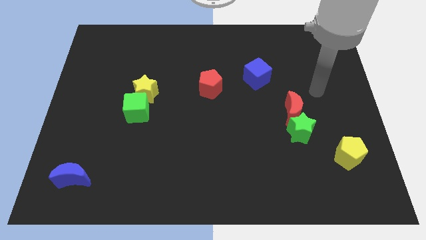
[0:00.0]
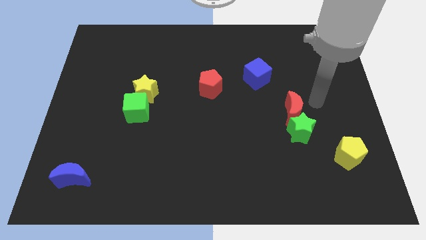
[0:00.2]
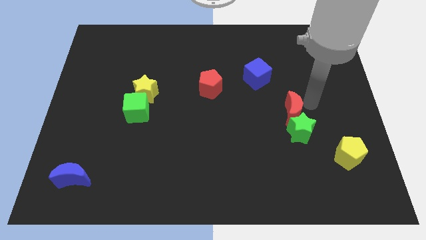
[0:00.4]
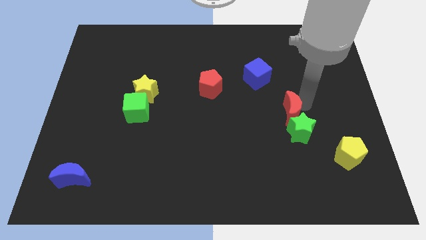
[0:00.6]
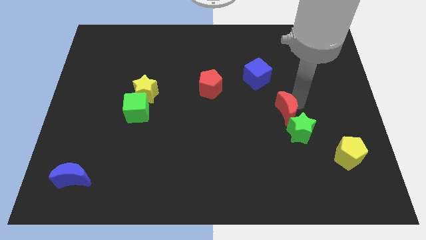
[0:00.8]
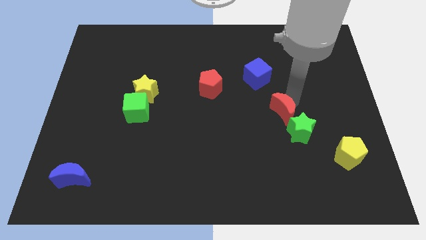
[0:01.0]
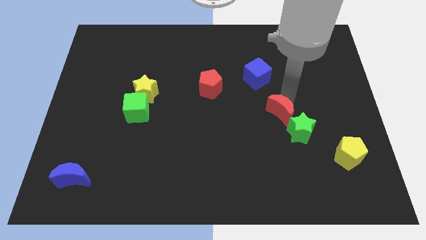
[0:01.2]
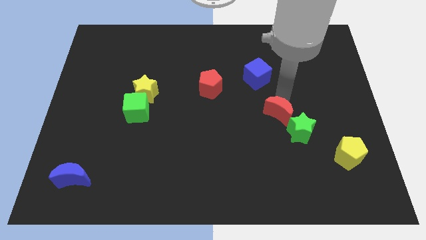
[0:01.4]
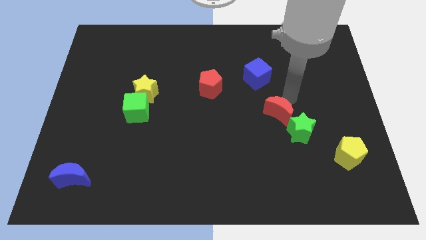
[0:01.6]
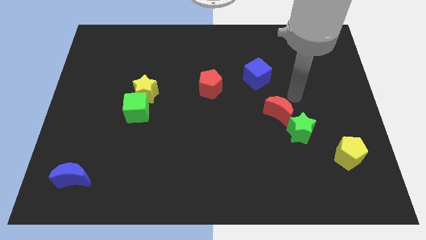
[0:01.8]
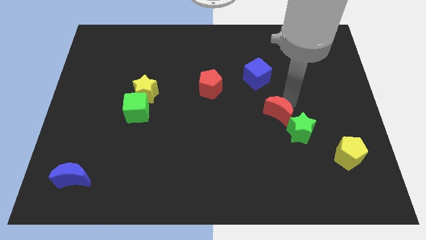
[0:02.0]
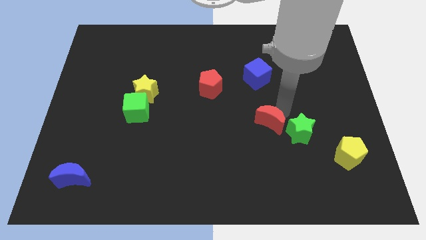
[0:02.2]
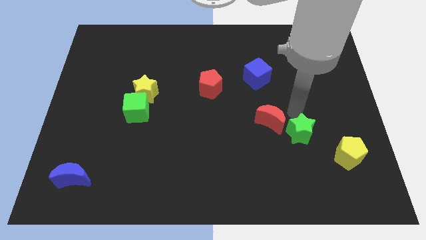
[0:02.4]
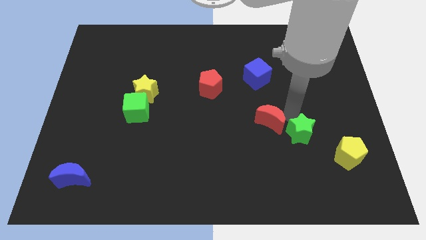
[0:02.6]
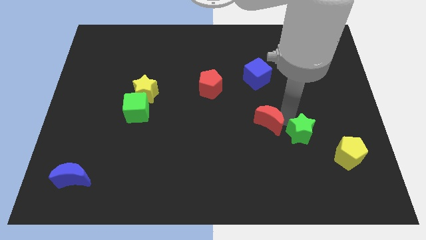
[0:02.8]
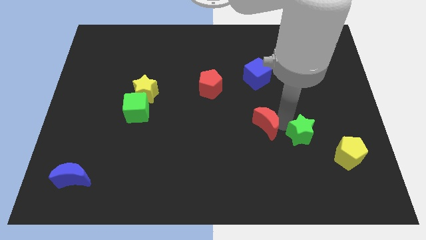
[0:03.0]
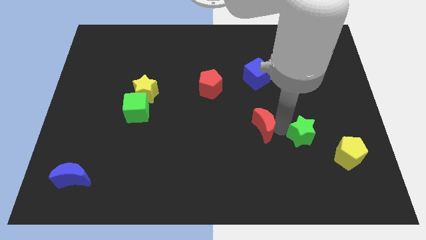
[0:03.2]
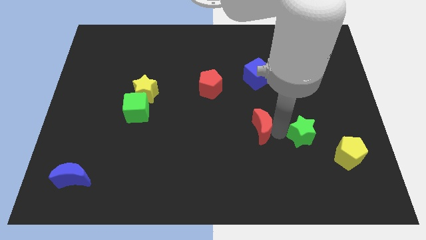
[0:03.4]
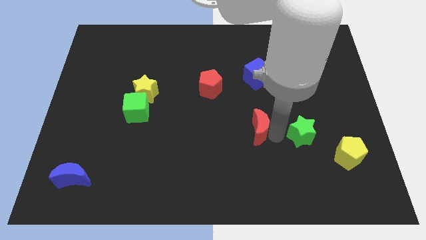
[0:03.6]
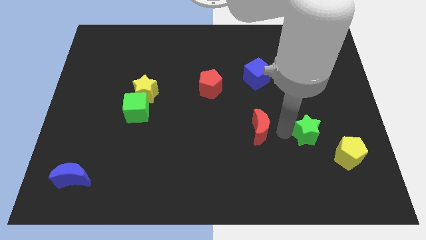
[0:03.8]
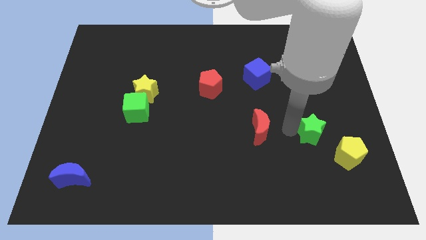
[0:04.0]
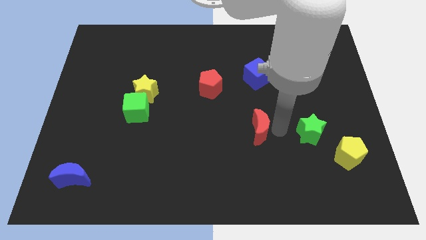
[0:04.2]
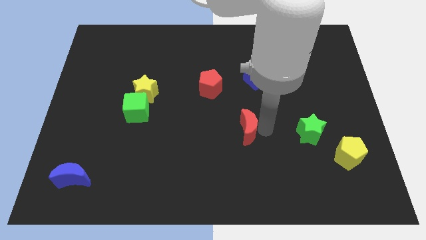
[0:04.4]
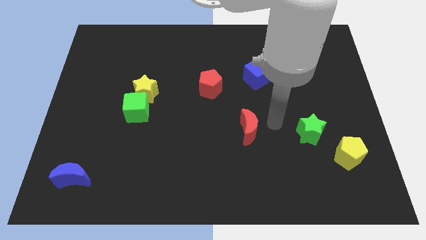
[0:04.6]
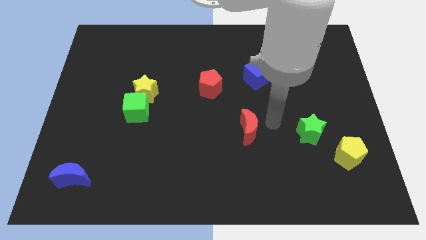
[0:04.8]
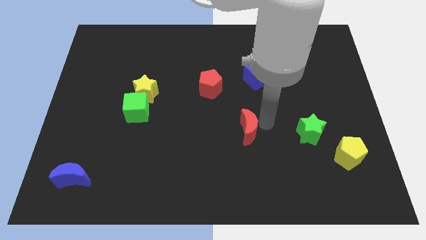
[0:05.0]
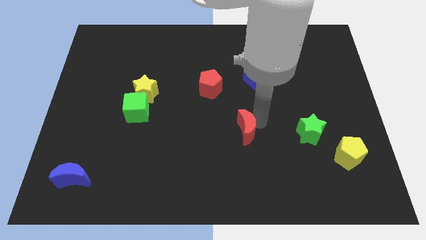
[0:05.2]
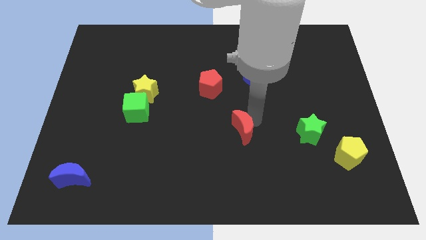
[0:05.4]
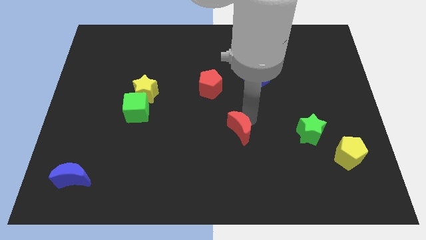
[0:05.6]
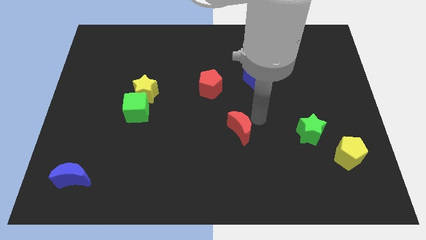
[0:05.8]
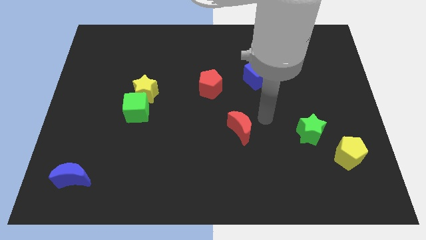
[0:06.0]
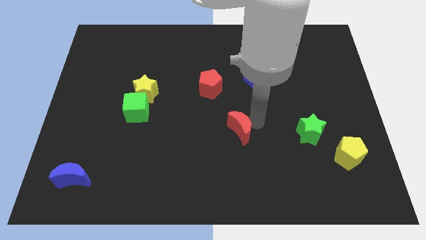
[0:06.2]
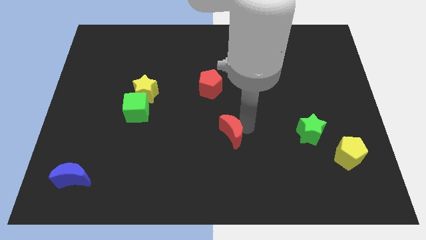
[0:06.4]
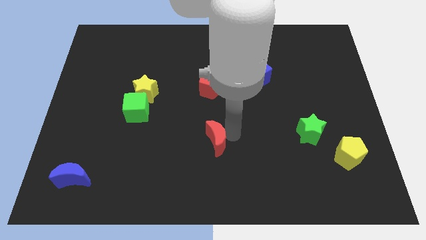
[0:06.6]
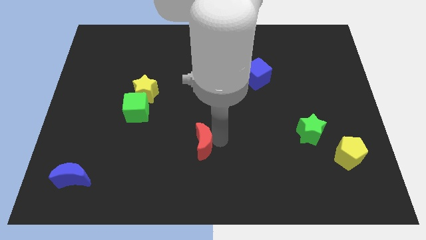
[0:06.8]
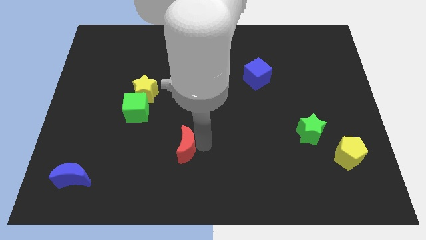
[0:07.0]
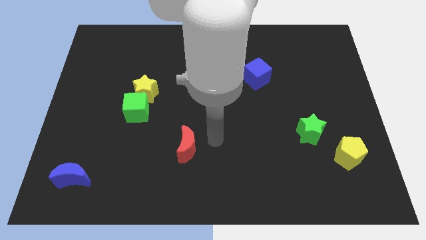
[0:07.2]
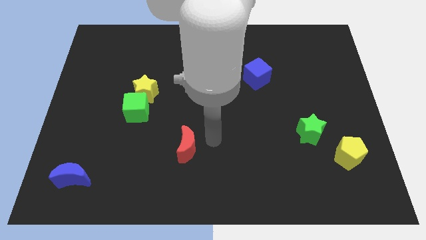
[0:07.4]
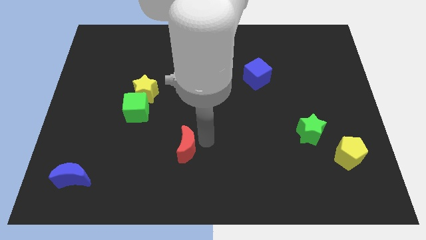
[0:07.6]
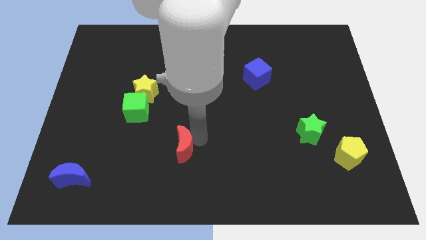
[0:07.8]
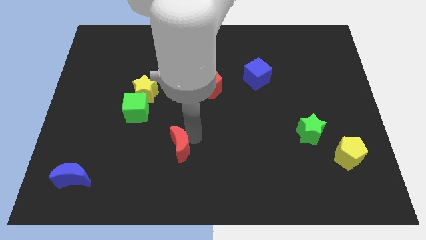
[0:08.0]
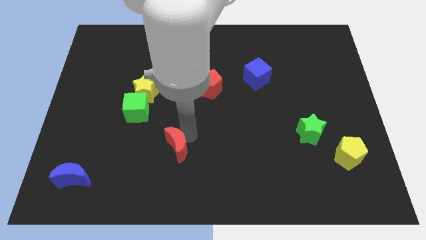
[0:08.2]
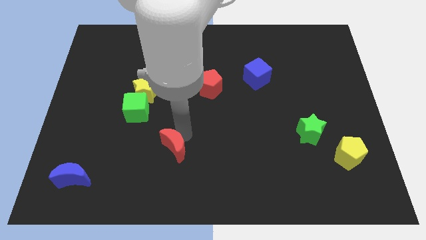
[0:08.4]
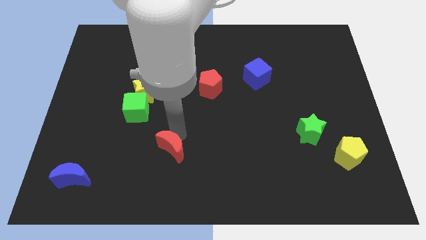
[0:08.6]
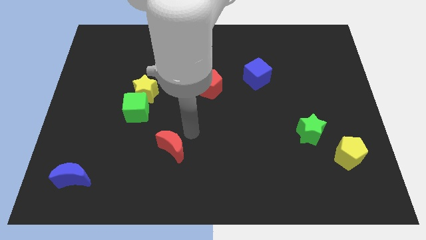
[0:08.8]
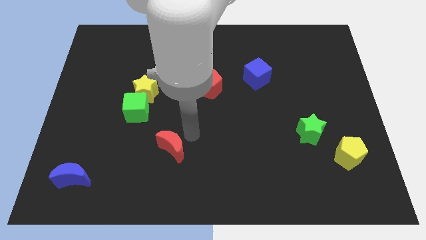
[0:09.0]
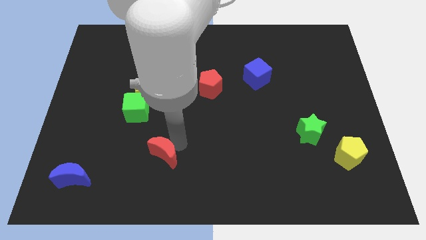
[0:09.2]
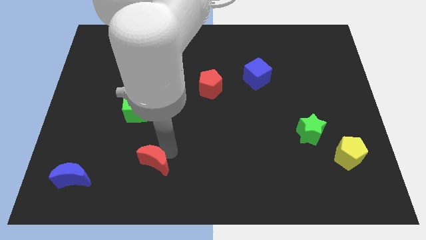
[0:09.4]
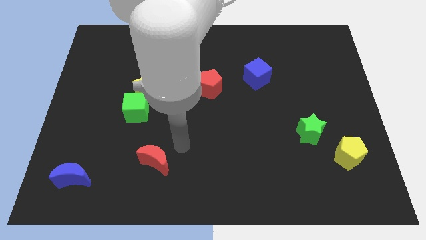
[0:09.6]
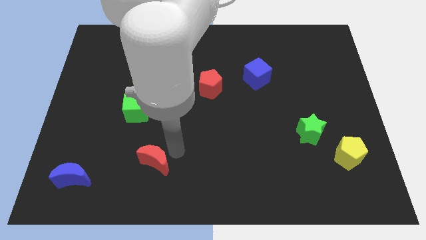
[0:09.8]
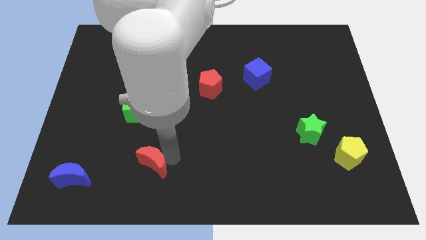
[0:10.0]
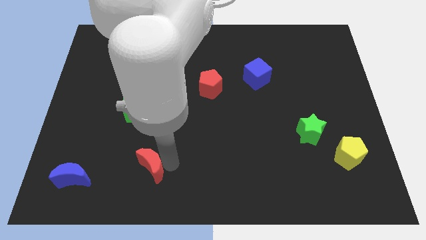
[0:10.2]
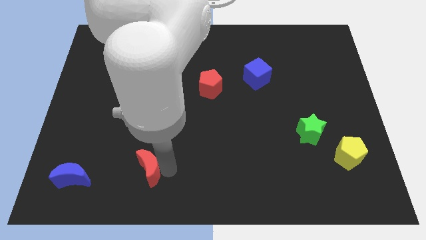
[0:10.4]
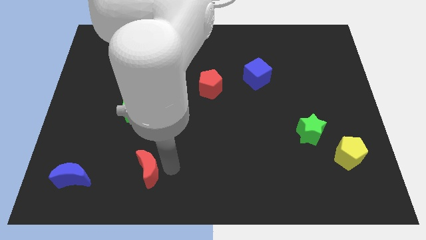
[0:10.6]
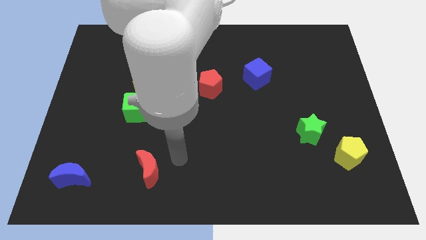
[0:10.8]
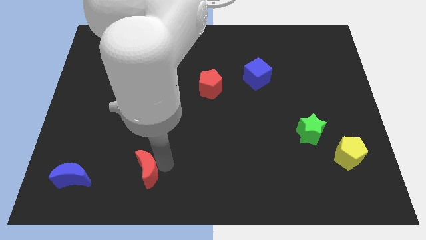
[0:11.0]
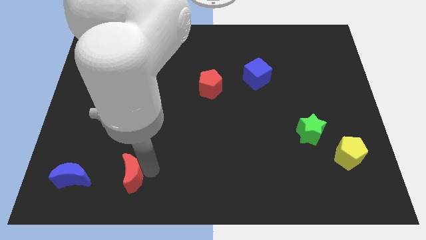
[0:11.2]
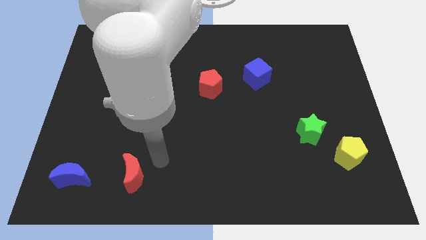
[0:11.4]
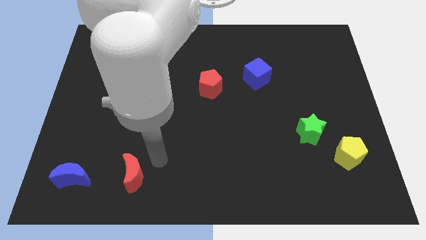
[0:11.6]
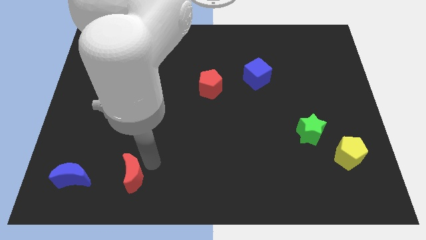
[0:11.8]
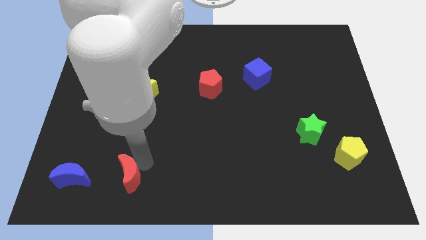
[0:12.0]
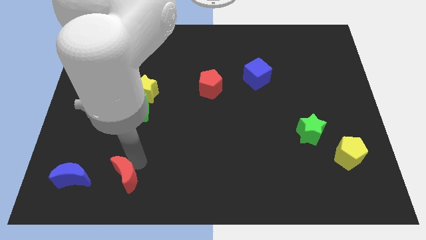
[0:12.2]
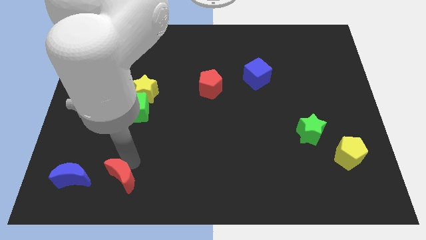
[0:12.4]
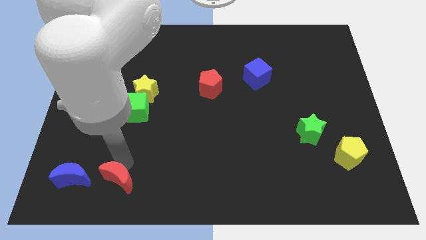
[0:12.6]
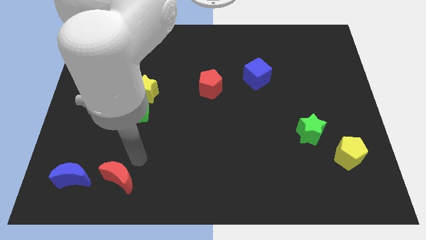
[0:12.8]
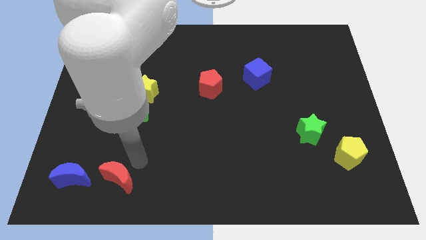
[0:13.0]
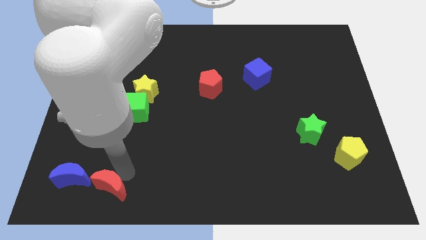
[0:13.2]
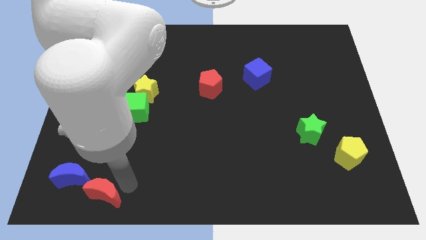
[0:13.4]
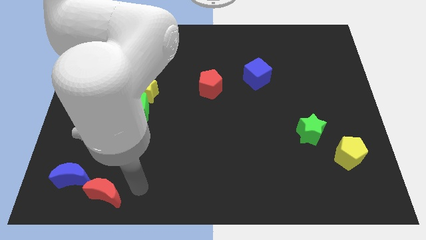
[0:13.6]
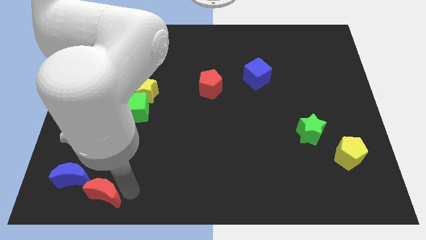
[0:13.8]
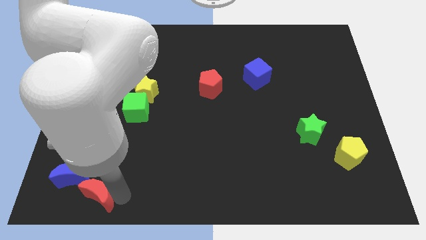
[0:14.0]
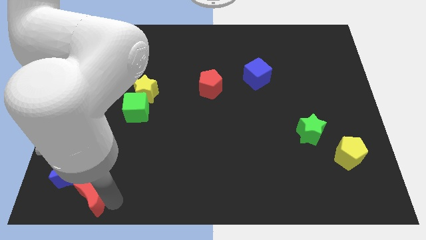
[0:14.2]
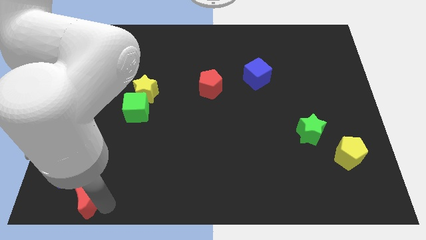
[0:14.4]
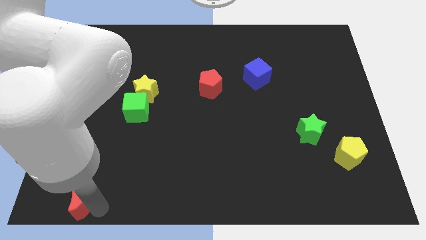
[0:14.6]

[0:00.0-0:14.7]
put the red moon to the bottom left
